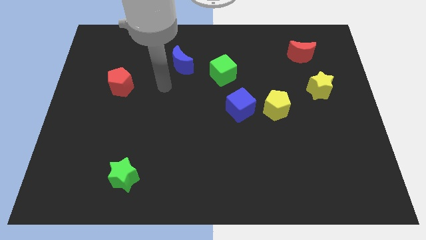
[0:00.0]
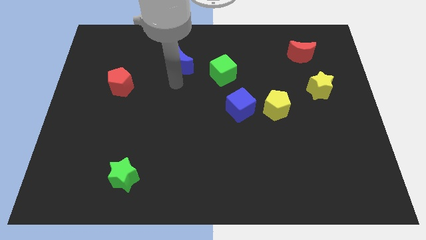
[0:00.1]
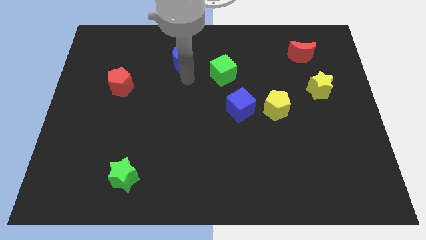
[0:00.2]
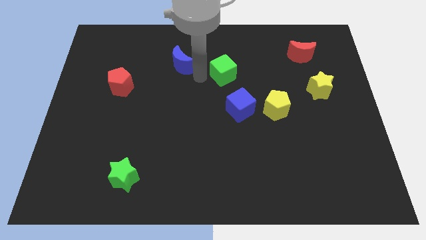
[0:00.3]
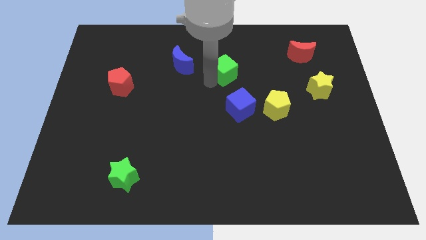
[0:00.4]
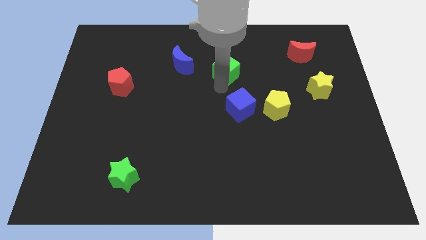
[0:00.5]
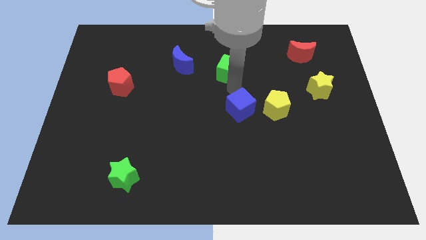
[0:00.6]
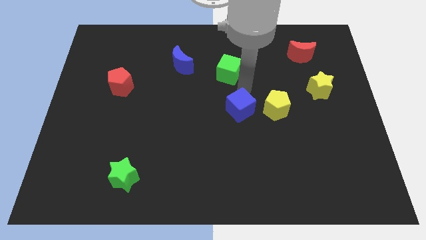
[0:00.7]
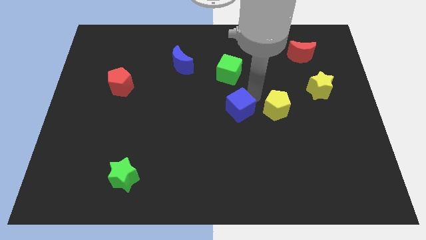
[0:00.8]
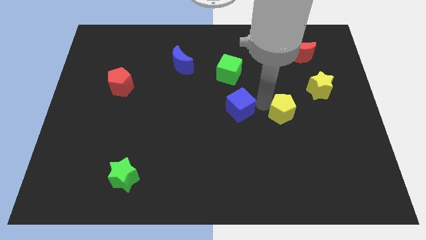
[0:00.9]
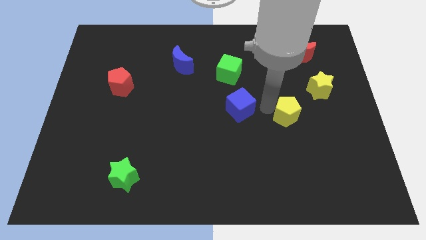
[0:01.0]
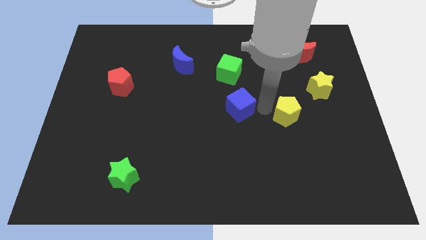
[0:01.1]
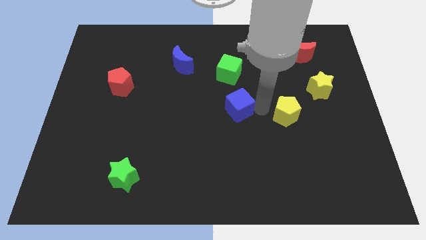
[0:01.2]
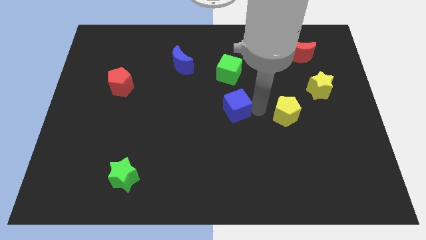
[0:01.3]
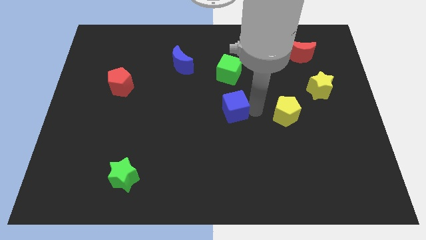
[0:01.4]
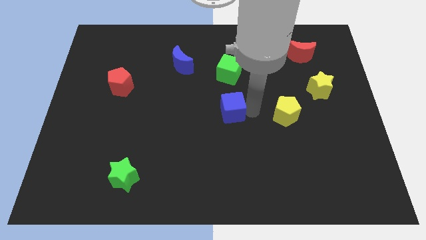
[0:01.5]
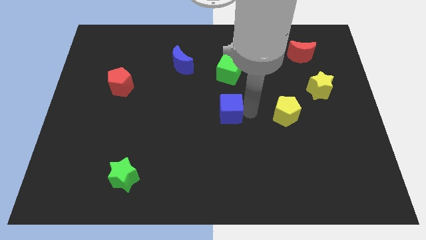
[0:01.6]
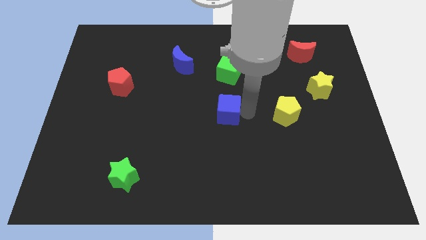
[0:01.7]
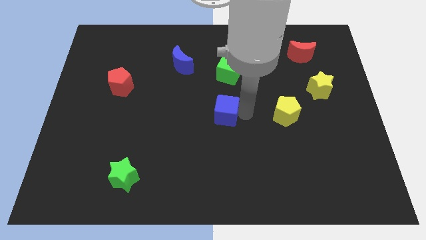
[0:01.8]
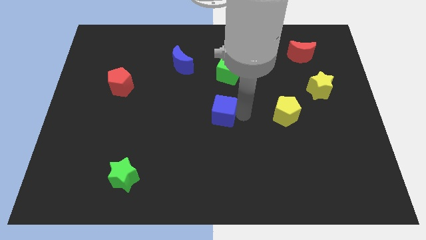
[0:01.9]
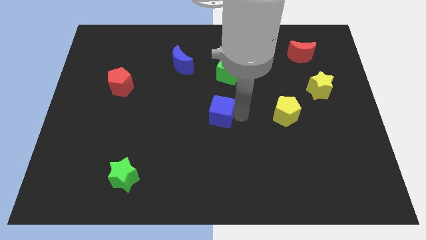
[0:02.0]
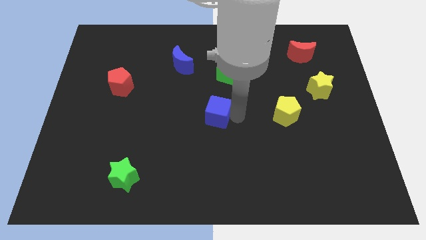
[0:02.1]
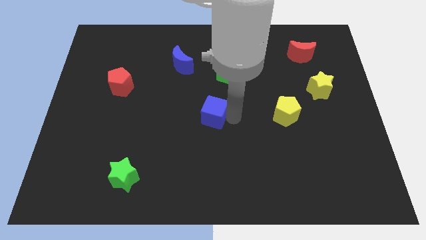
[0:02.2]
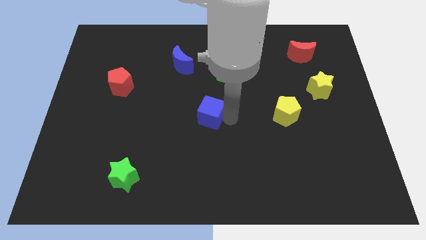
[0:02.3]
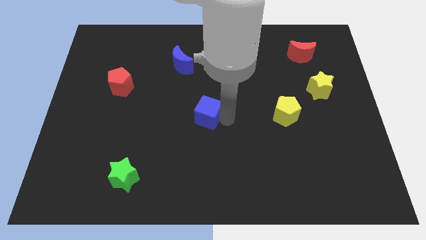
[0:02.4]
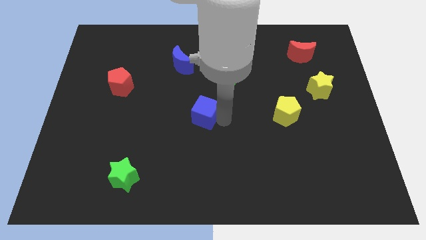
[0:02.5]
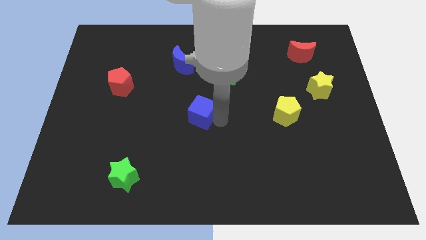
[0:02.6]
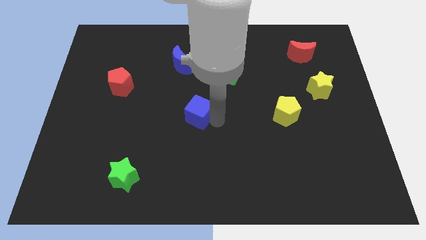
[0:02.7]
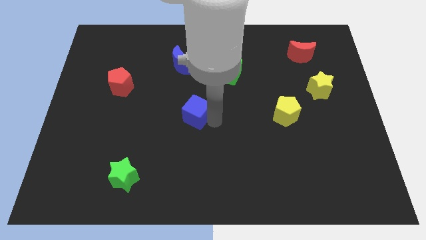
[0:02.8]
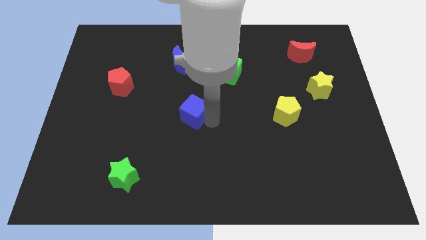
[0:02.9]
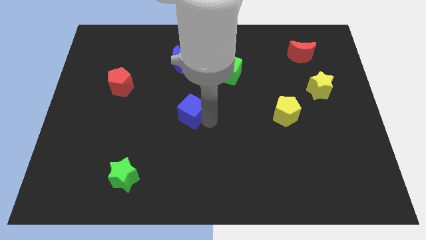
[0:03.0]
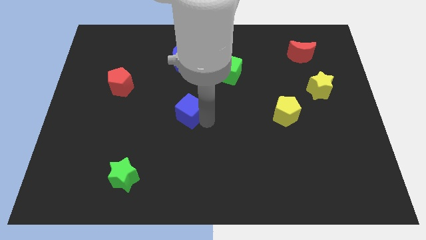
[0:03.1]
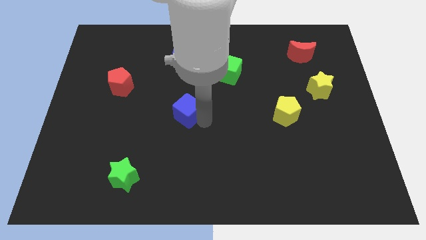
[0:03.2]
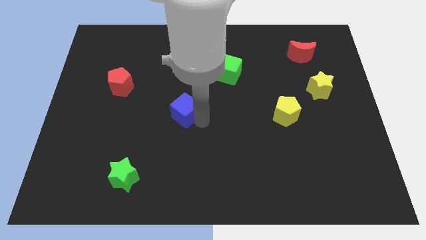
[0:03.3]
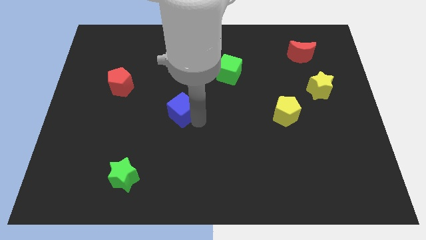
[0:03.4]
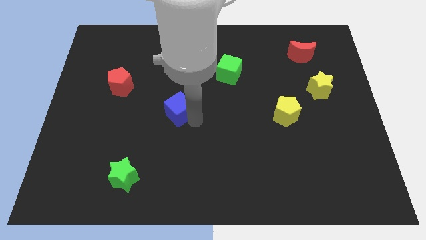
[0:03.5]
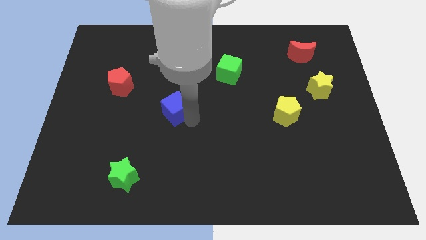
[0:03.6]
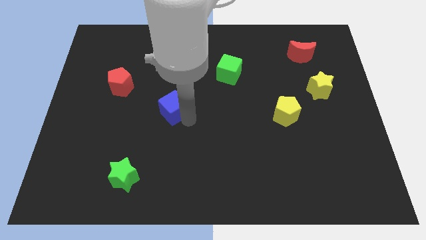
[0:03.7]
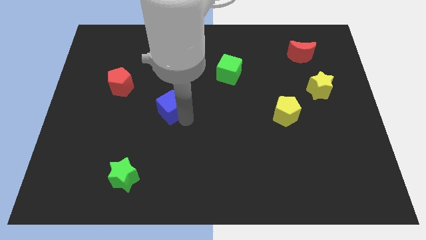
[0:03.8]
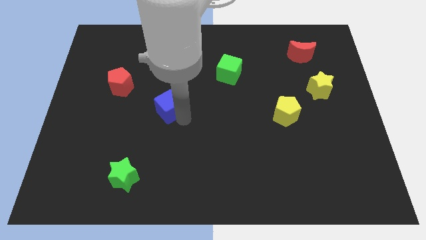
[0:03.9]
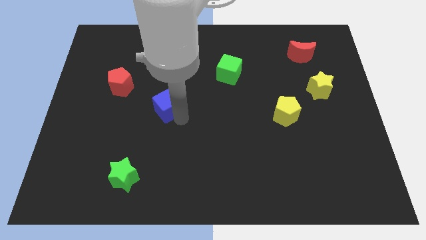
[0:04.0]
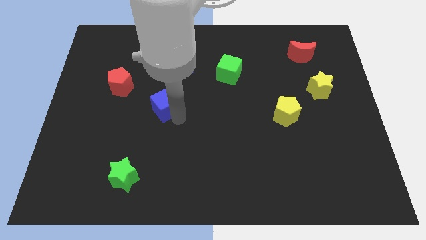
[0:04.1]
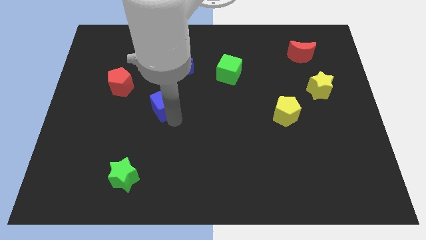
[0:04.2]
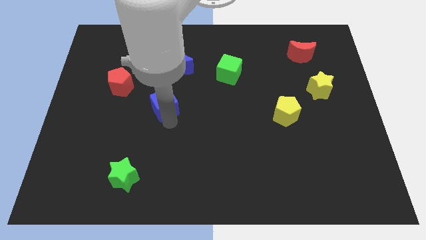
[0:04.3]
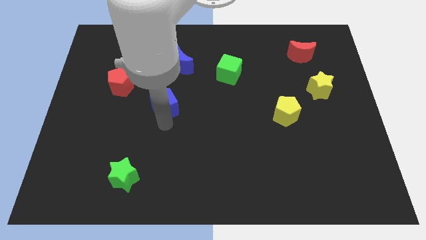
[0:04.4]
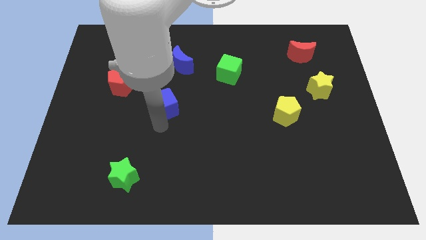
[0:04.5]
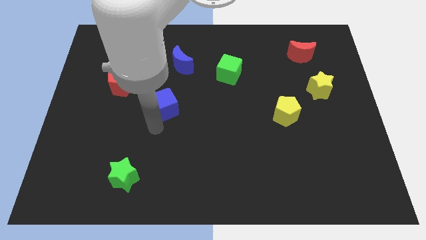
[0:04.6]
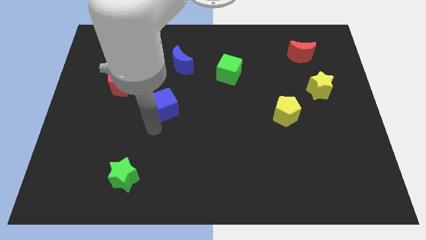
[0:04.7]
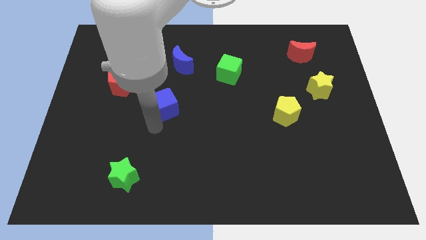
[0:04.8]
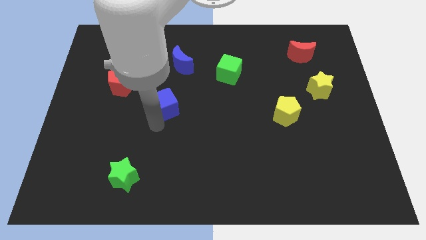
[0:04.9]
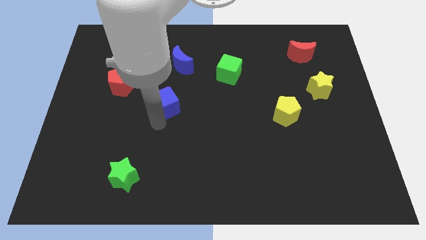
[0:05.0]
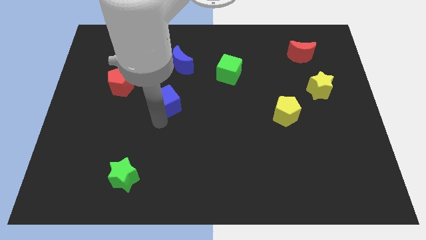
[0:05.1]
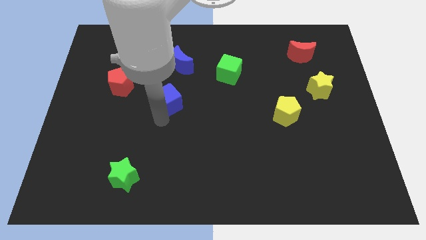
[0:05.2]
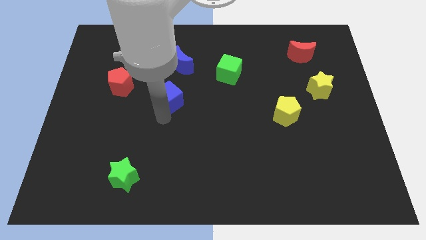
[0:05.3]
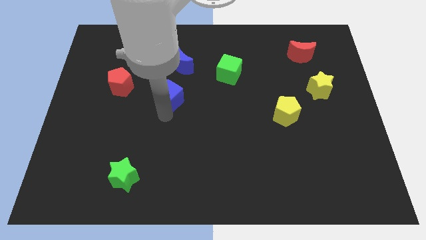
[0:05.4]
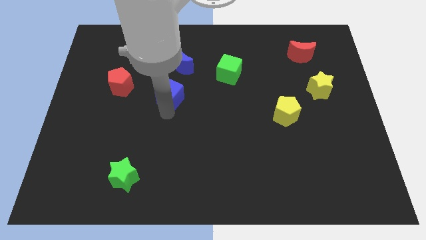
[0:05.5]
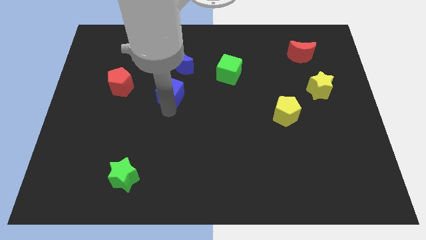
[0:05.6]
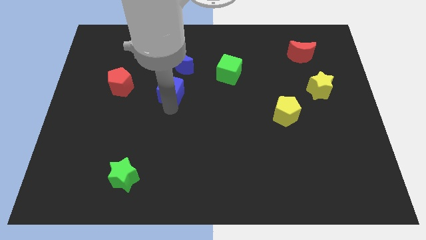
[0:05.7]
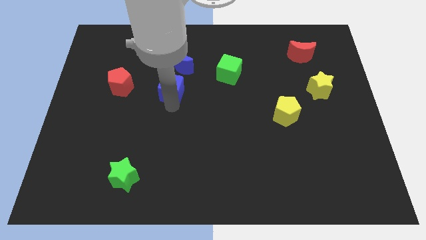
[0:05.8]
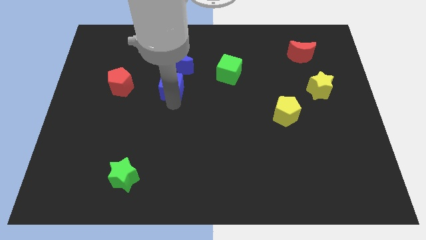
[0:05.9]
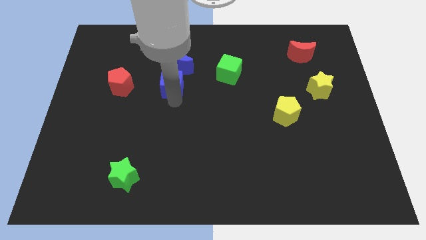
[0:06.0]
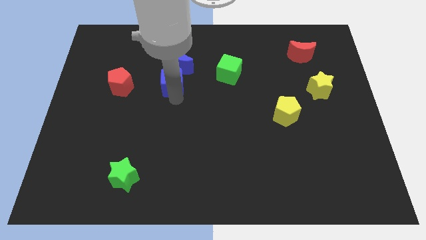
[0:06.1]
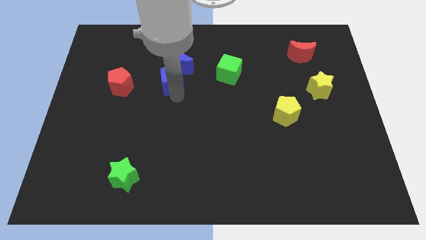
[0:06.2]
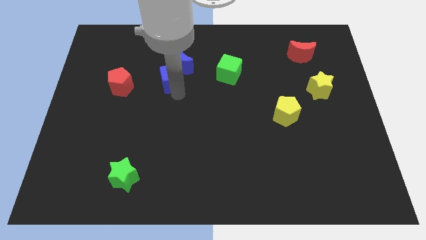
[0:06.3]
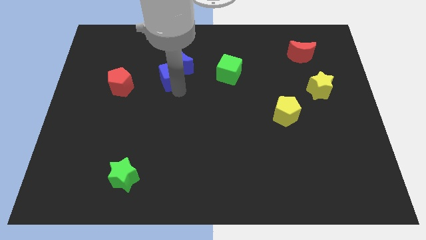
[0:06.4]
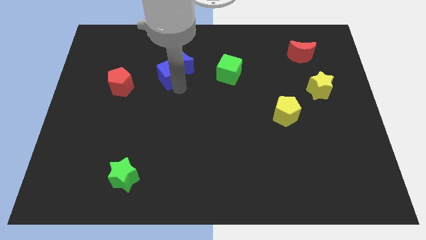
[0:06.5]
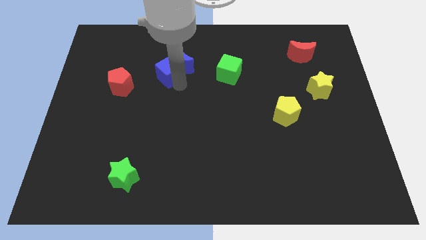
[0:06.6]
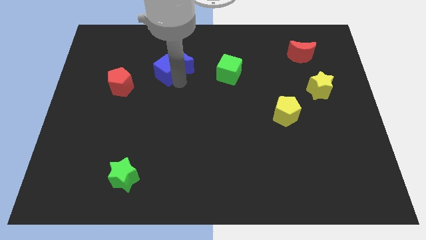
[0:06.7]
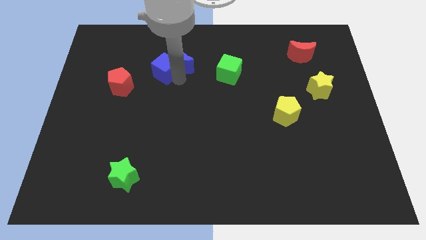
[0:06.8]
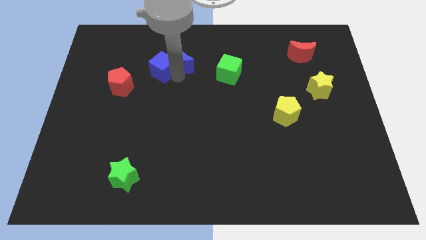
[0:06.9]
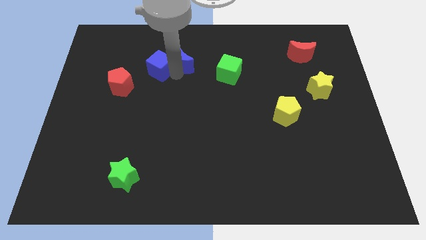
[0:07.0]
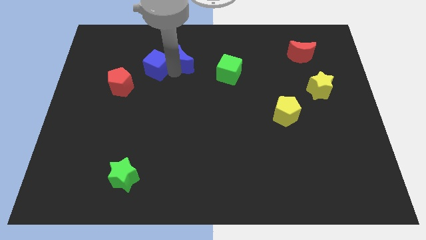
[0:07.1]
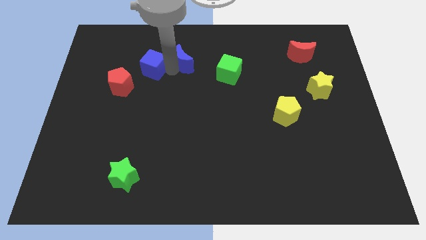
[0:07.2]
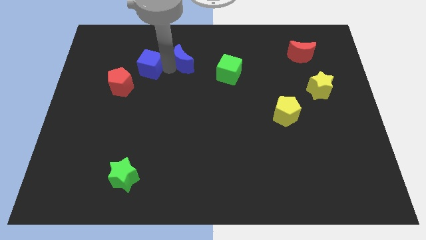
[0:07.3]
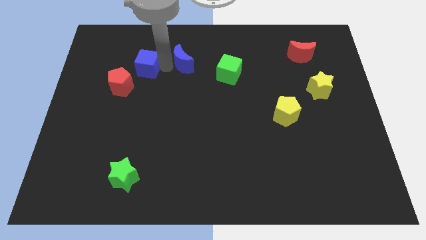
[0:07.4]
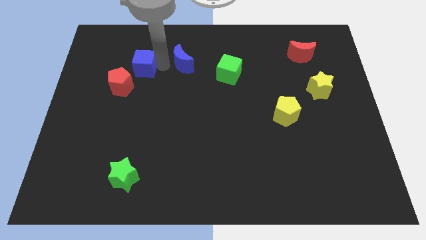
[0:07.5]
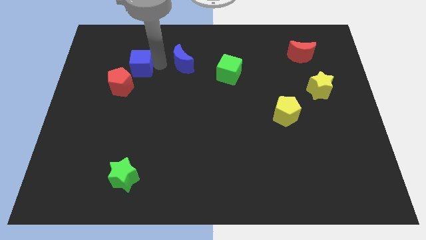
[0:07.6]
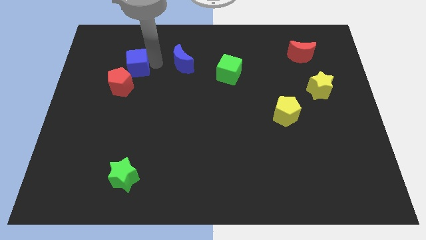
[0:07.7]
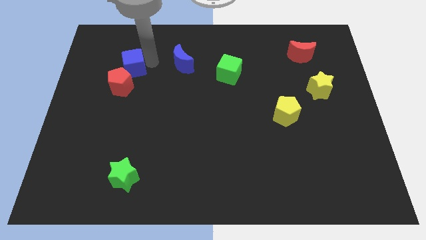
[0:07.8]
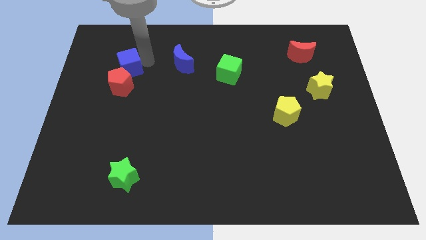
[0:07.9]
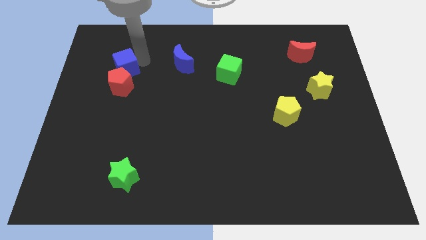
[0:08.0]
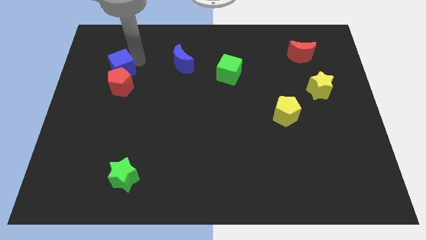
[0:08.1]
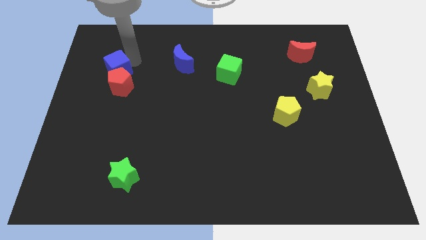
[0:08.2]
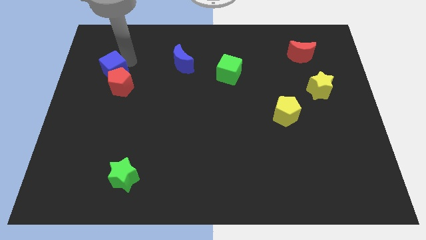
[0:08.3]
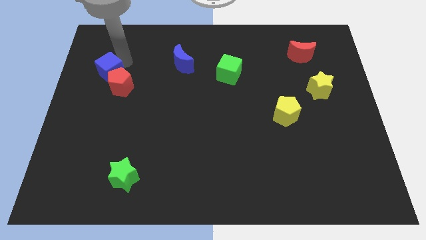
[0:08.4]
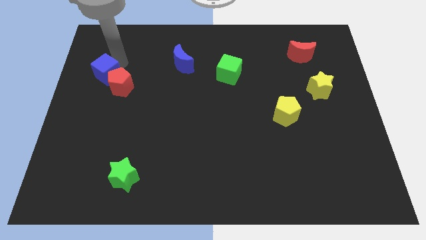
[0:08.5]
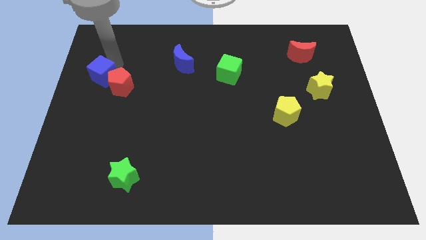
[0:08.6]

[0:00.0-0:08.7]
put the blue cube to the left side
